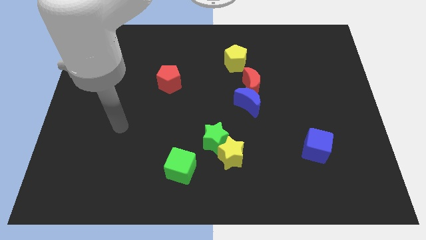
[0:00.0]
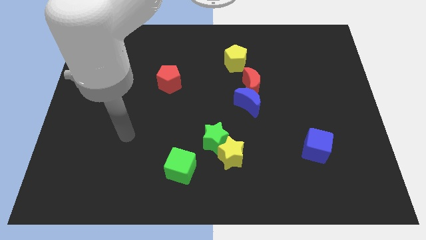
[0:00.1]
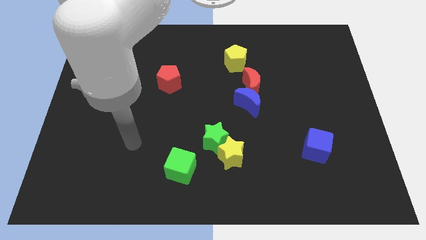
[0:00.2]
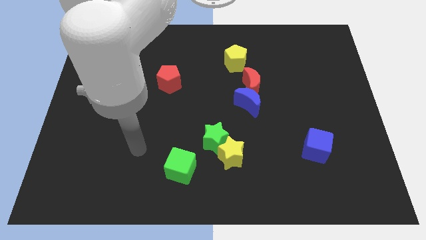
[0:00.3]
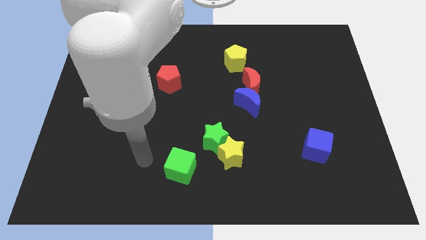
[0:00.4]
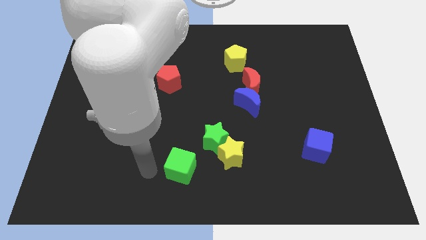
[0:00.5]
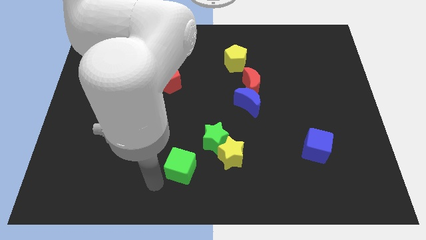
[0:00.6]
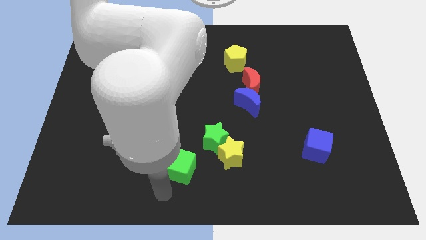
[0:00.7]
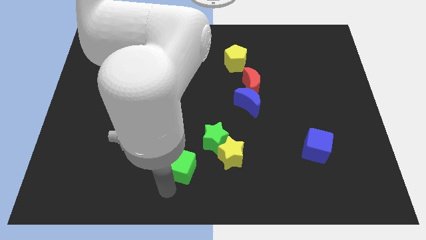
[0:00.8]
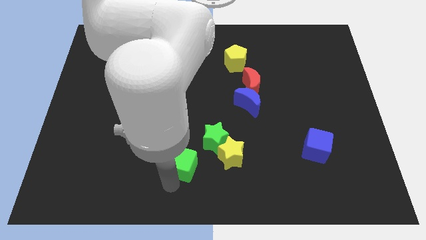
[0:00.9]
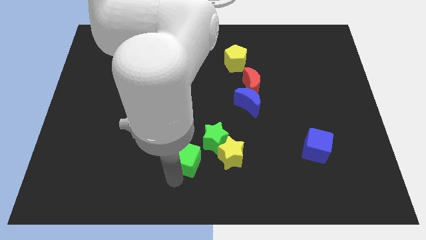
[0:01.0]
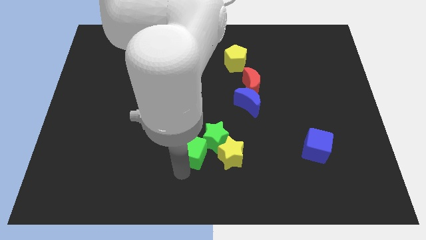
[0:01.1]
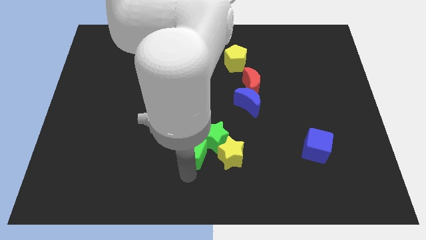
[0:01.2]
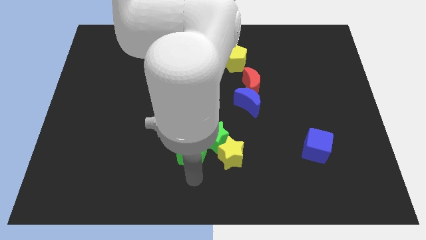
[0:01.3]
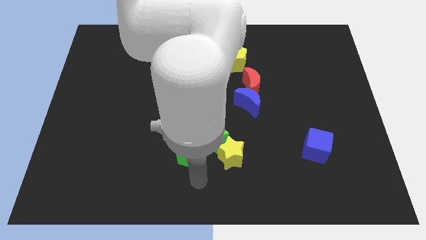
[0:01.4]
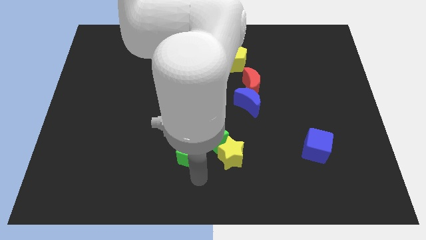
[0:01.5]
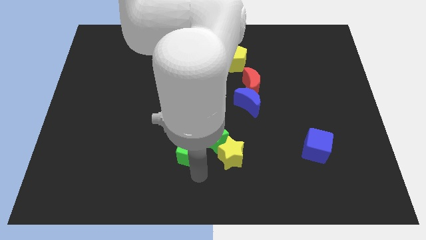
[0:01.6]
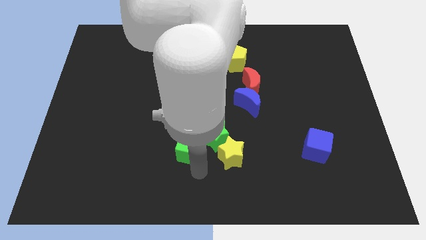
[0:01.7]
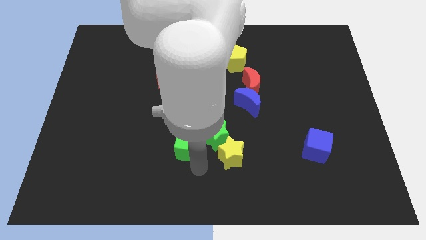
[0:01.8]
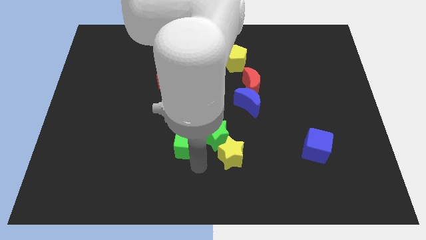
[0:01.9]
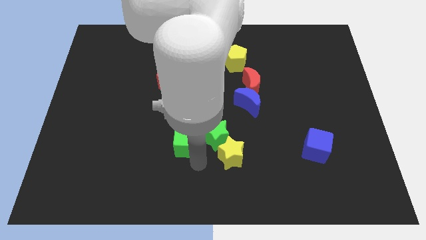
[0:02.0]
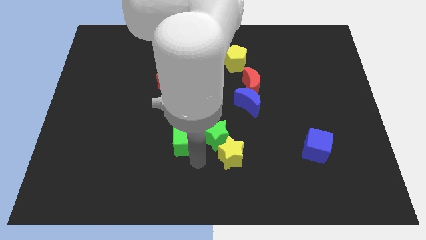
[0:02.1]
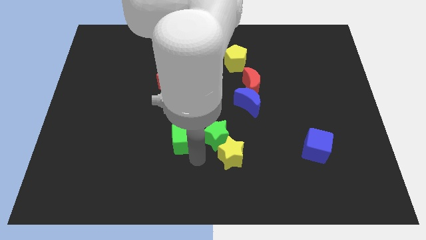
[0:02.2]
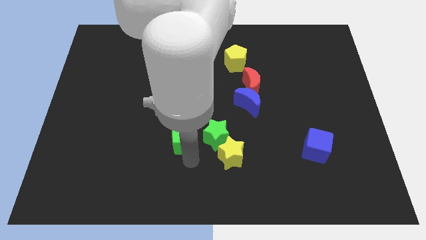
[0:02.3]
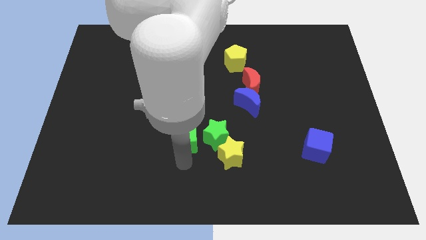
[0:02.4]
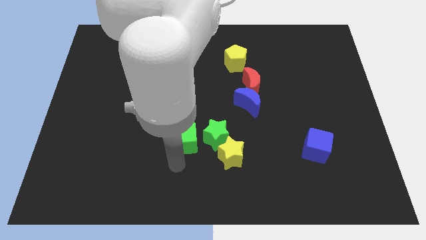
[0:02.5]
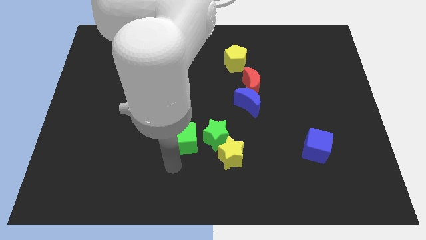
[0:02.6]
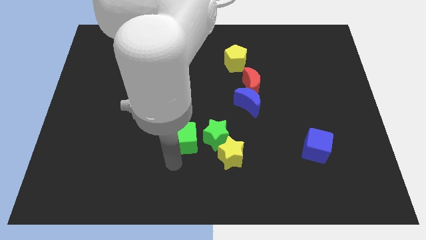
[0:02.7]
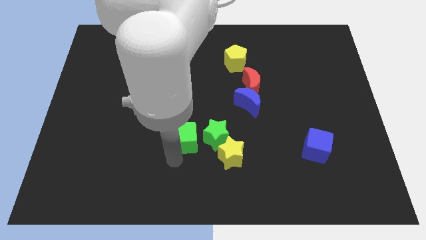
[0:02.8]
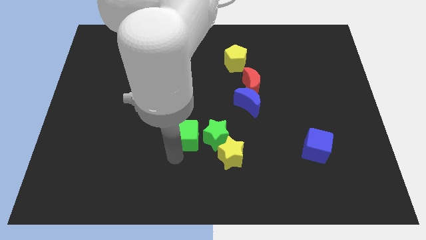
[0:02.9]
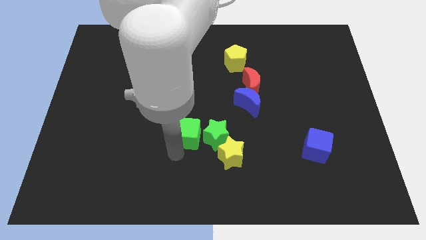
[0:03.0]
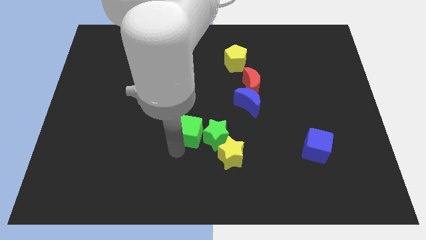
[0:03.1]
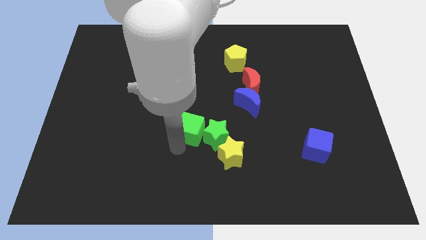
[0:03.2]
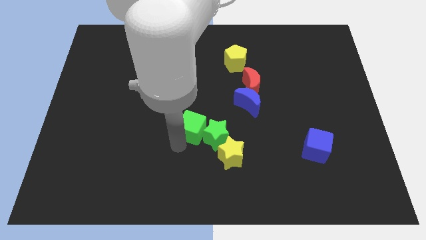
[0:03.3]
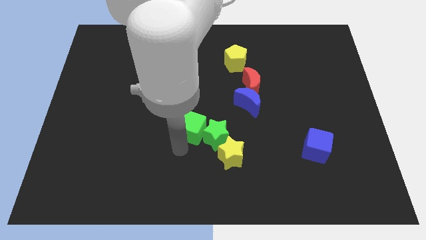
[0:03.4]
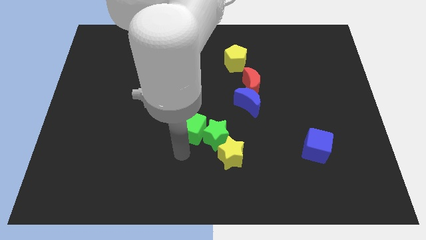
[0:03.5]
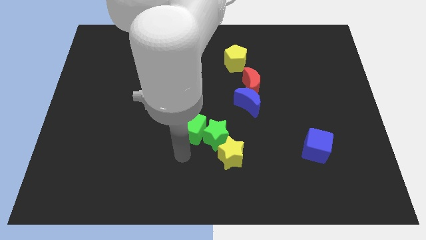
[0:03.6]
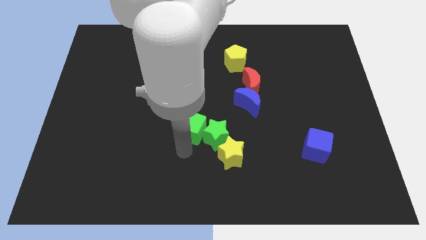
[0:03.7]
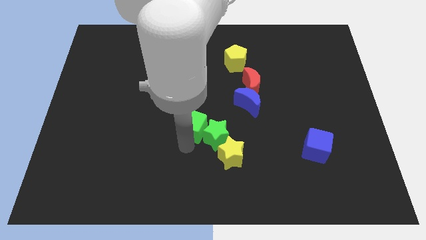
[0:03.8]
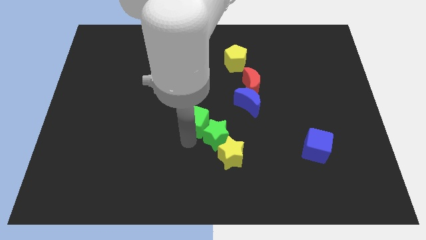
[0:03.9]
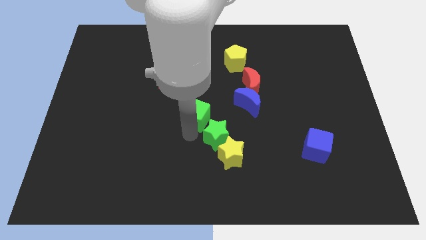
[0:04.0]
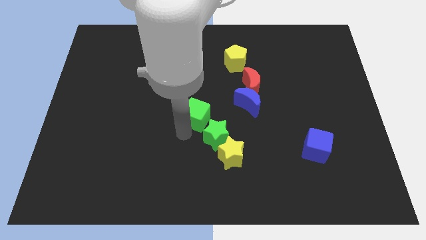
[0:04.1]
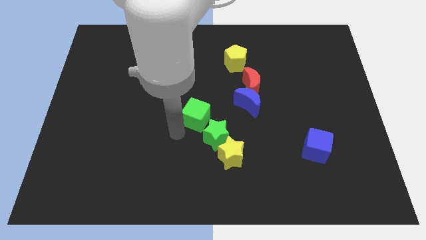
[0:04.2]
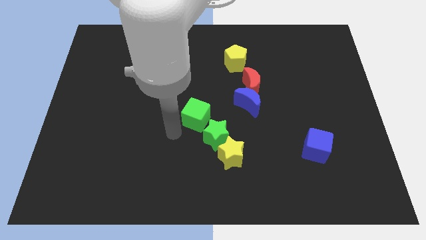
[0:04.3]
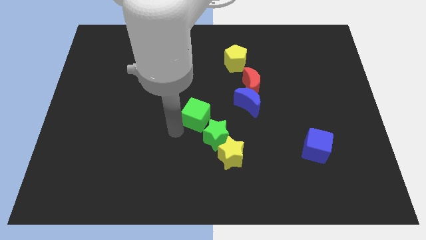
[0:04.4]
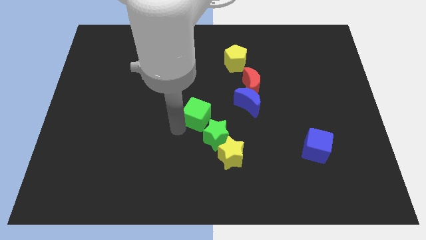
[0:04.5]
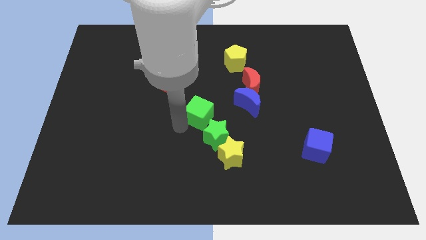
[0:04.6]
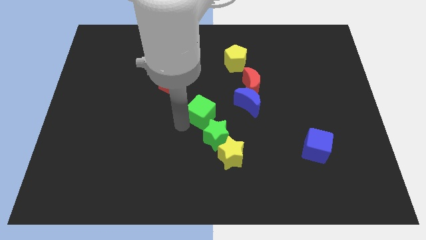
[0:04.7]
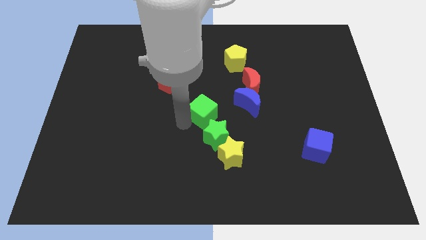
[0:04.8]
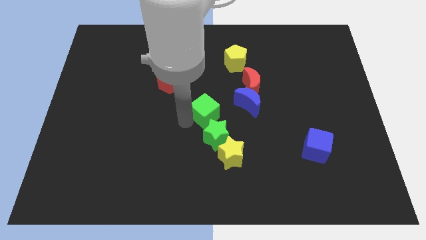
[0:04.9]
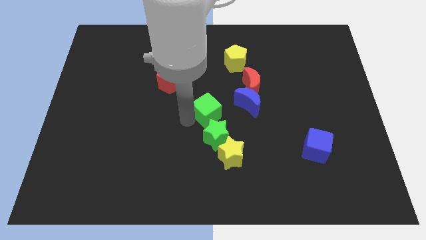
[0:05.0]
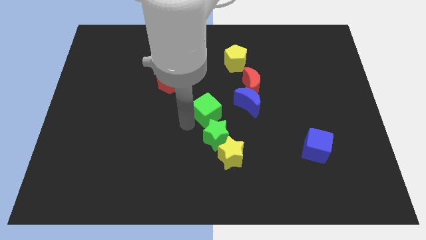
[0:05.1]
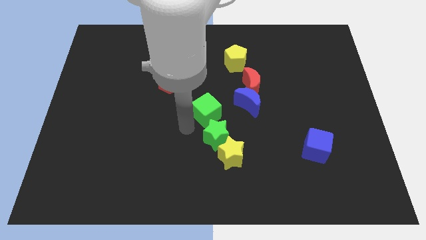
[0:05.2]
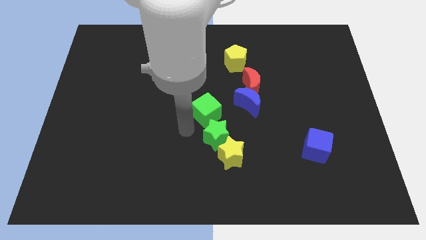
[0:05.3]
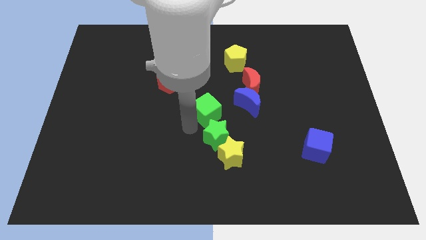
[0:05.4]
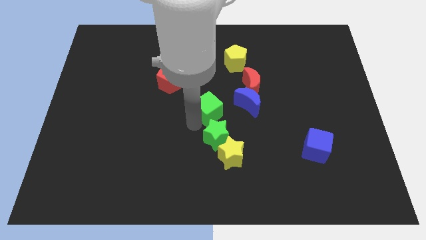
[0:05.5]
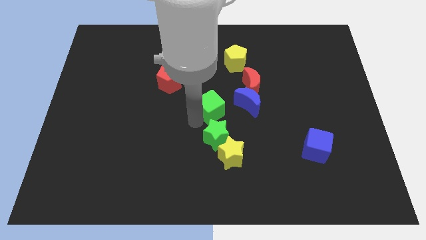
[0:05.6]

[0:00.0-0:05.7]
put the green cube to the bottom left side of the red moon

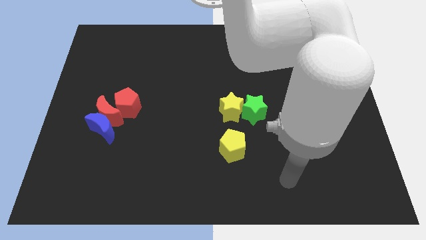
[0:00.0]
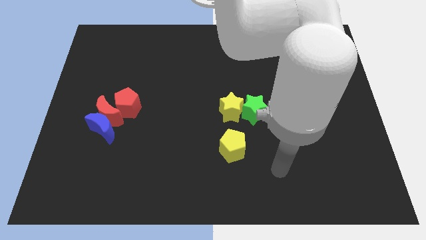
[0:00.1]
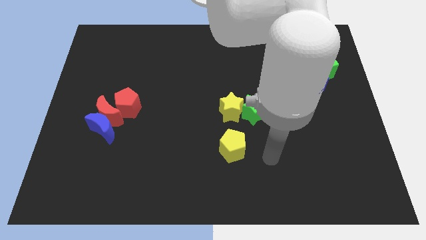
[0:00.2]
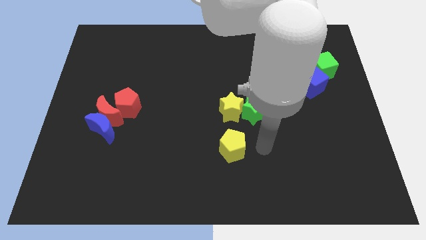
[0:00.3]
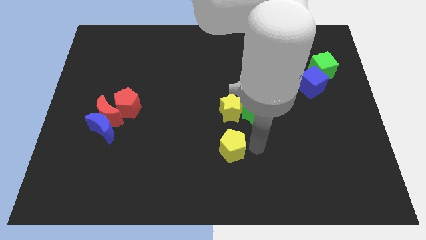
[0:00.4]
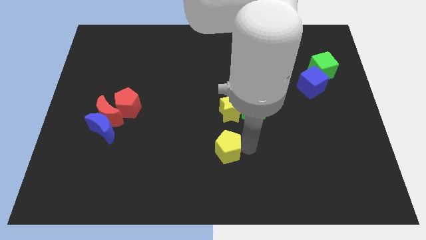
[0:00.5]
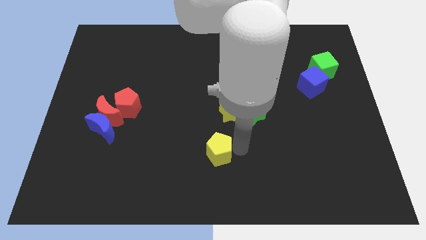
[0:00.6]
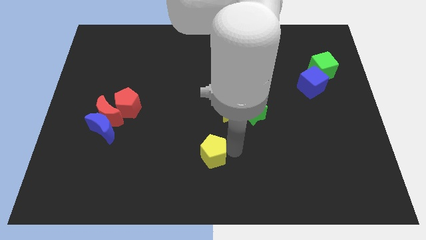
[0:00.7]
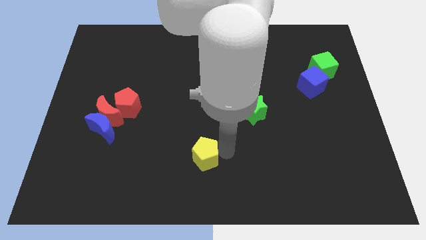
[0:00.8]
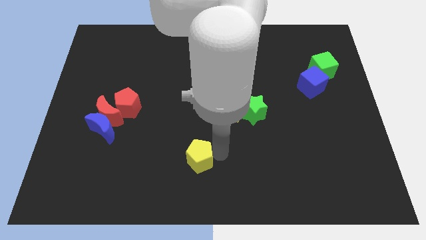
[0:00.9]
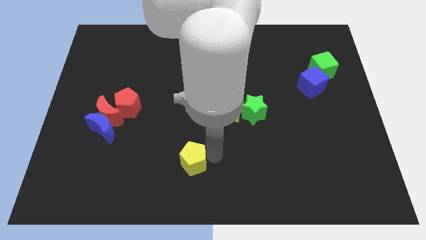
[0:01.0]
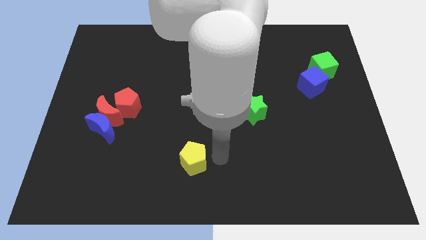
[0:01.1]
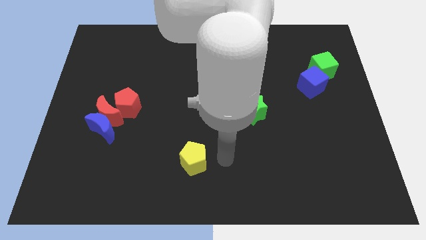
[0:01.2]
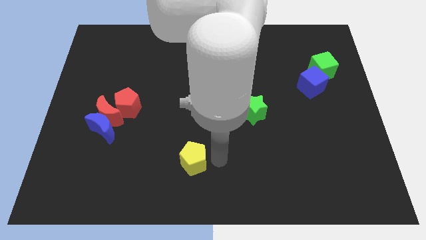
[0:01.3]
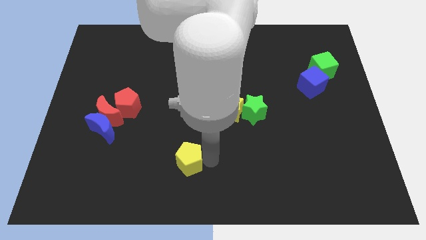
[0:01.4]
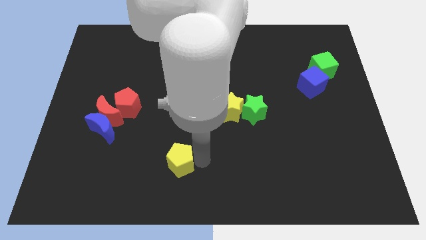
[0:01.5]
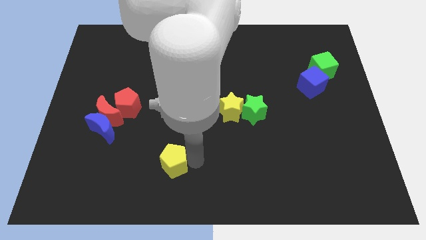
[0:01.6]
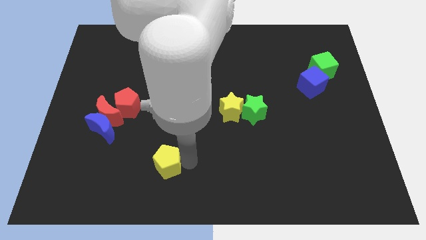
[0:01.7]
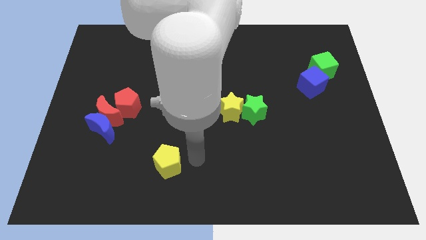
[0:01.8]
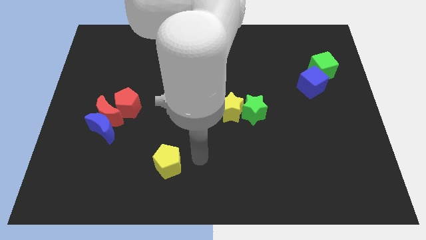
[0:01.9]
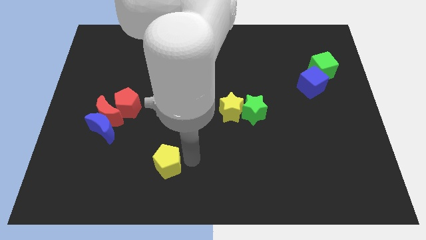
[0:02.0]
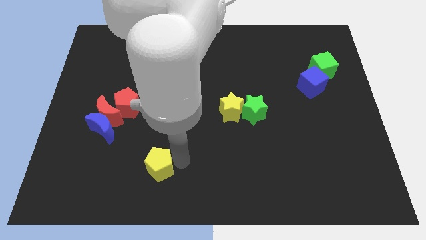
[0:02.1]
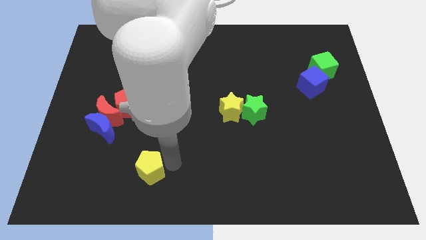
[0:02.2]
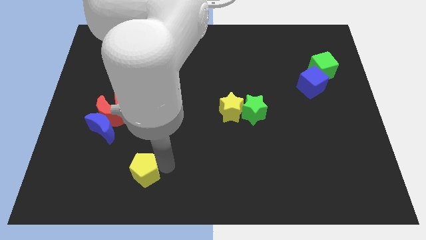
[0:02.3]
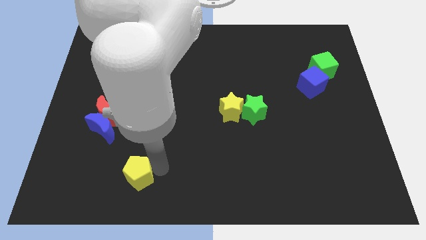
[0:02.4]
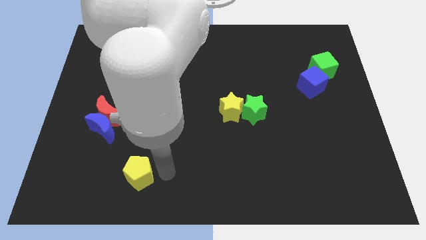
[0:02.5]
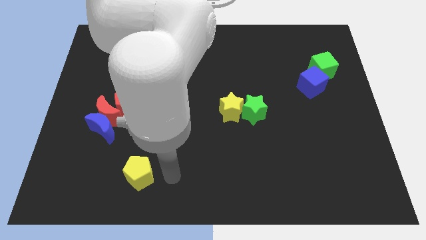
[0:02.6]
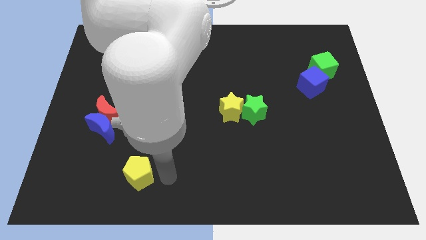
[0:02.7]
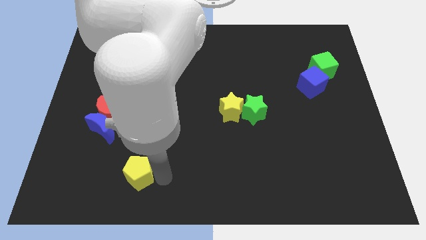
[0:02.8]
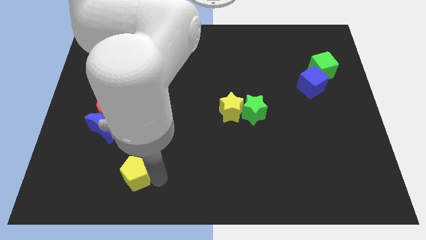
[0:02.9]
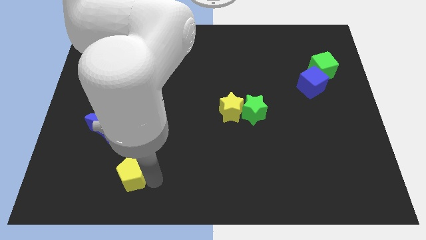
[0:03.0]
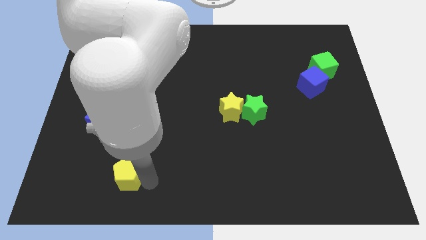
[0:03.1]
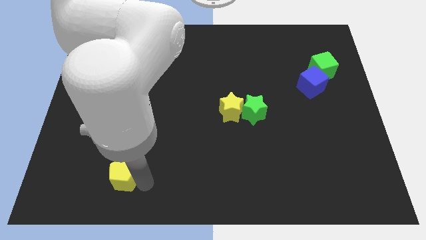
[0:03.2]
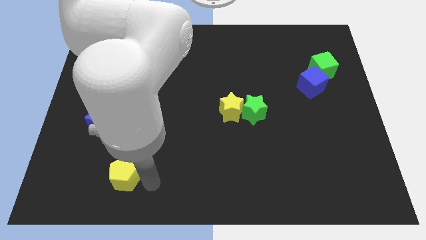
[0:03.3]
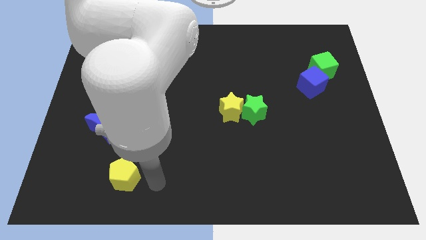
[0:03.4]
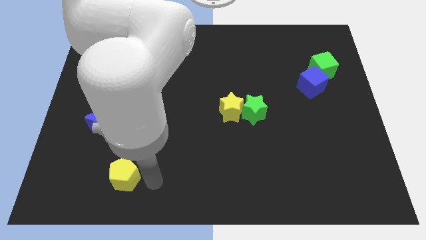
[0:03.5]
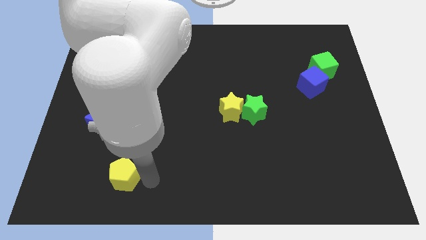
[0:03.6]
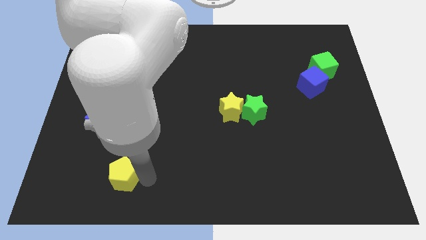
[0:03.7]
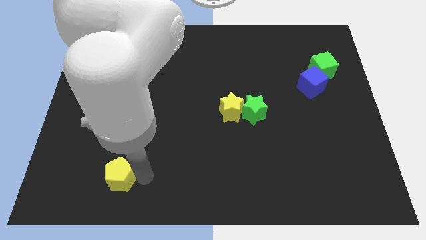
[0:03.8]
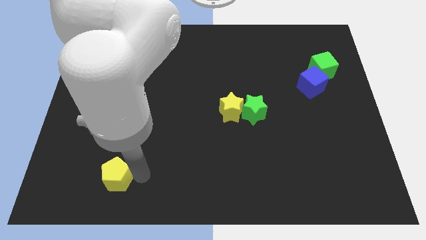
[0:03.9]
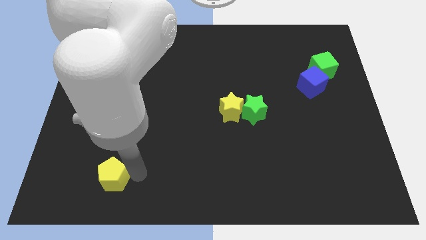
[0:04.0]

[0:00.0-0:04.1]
move the yellow pentagon to the bottom side of the blue moon
